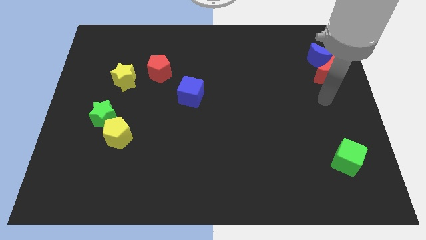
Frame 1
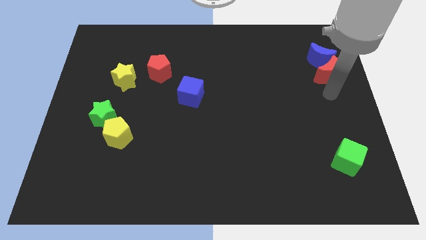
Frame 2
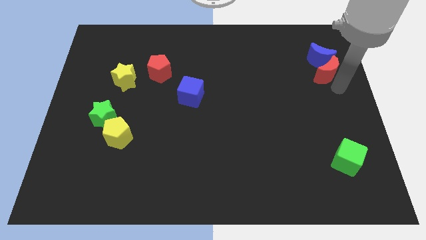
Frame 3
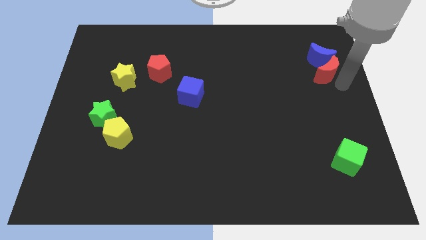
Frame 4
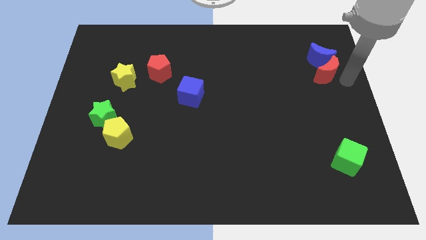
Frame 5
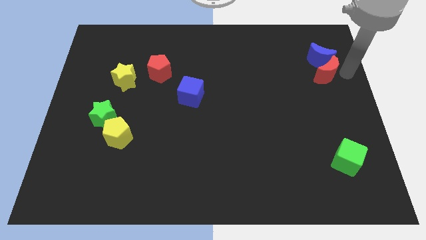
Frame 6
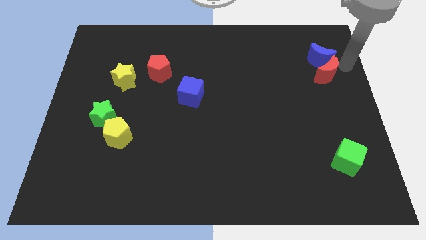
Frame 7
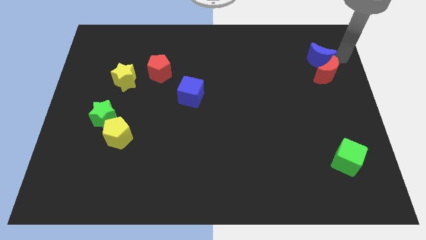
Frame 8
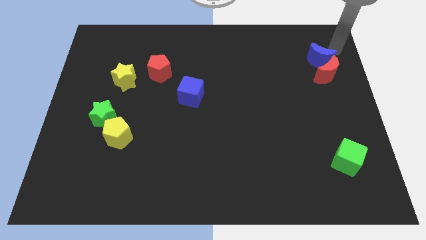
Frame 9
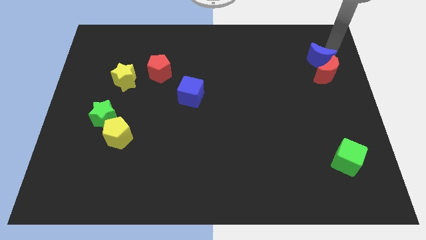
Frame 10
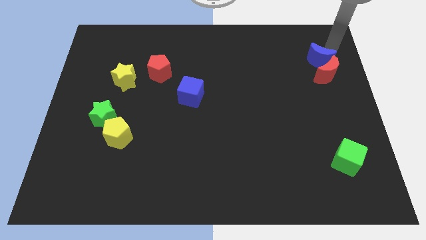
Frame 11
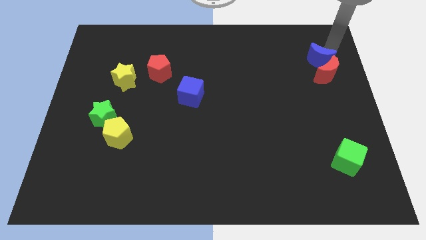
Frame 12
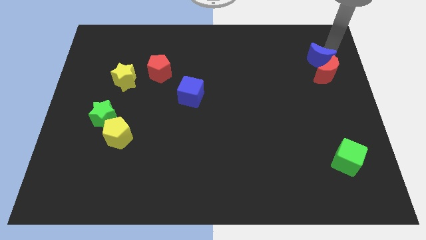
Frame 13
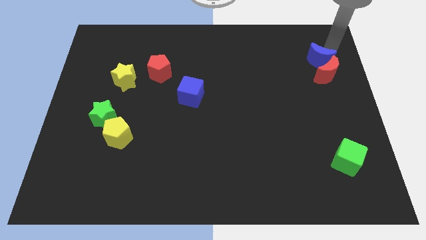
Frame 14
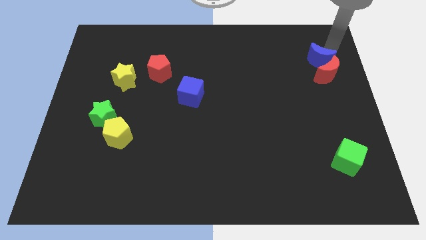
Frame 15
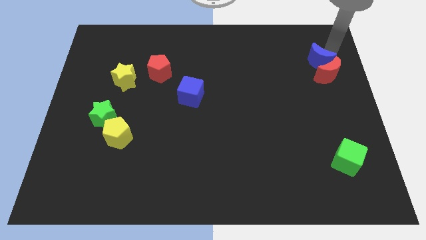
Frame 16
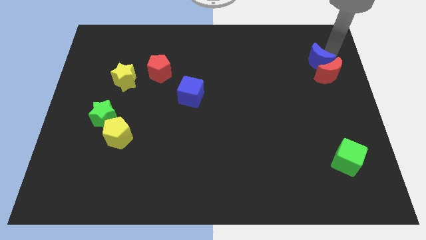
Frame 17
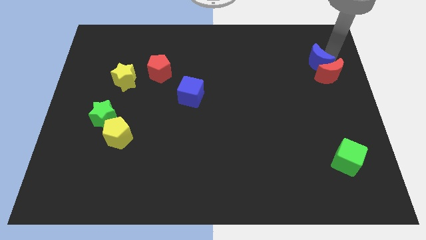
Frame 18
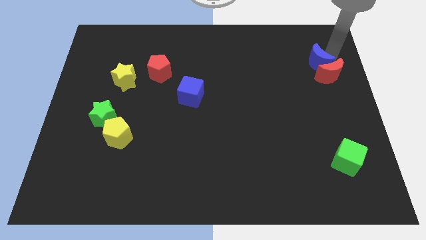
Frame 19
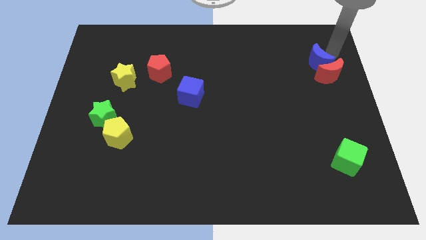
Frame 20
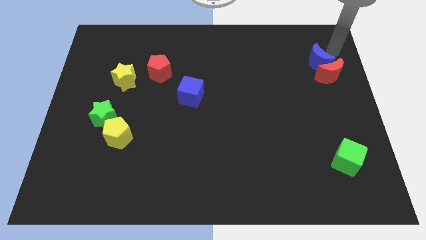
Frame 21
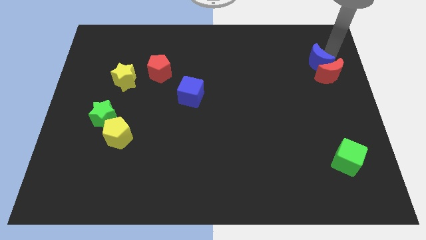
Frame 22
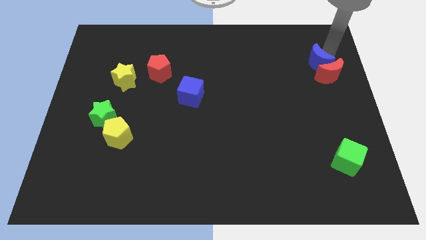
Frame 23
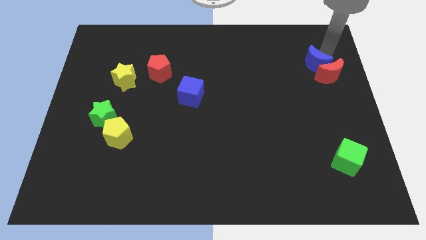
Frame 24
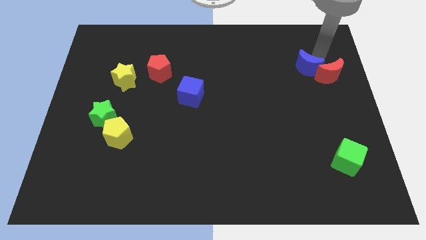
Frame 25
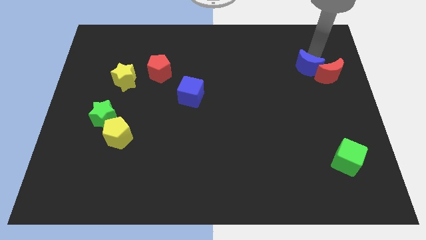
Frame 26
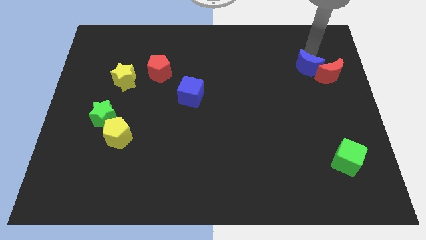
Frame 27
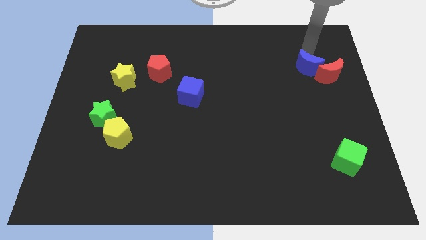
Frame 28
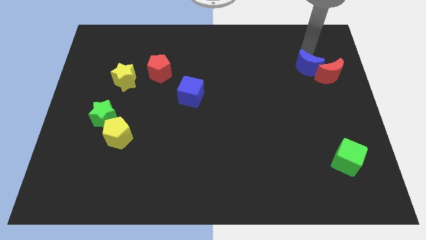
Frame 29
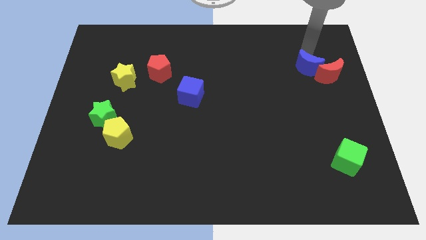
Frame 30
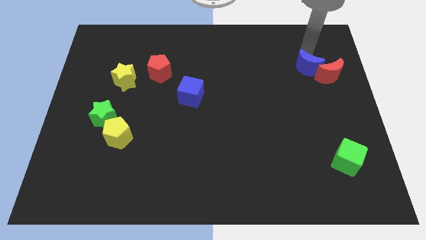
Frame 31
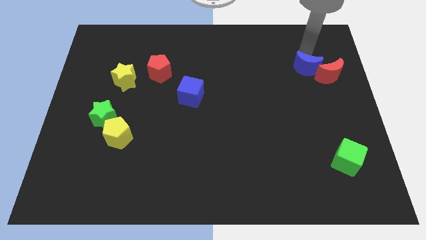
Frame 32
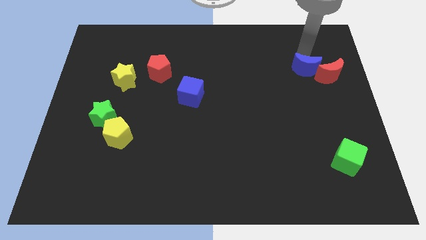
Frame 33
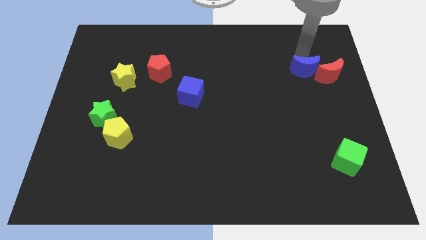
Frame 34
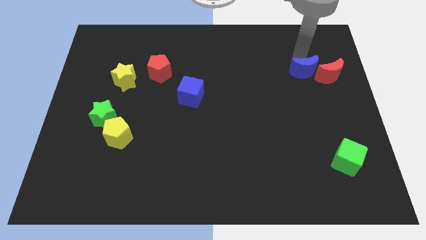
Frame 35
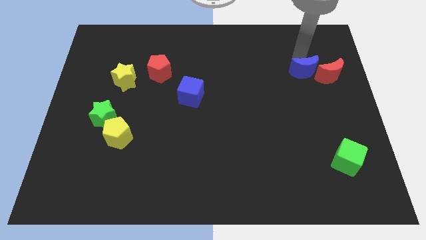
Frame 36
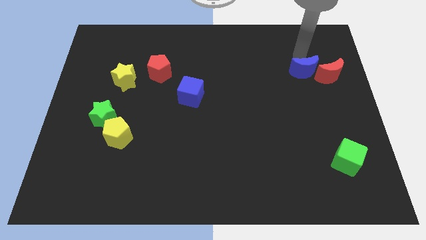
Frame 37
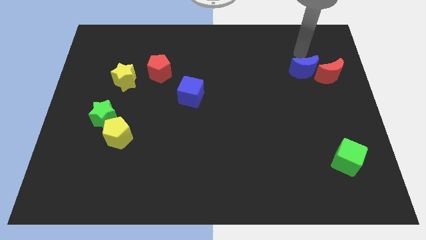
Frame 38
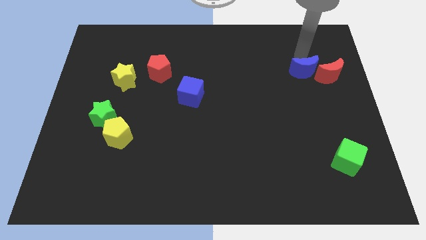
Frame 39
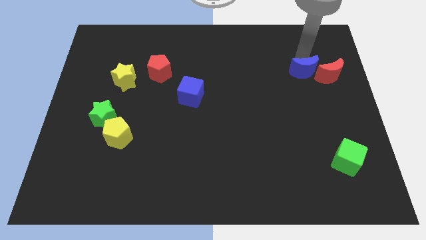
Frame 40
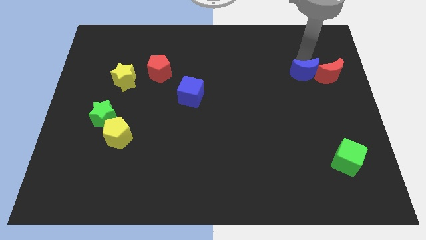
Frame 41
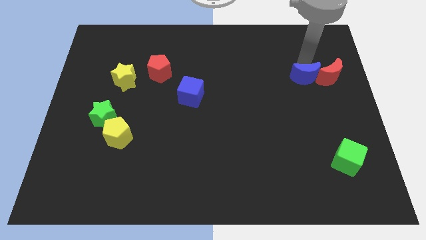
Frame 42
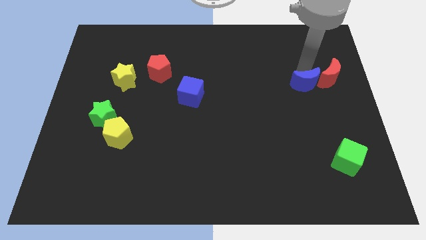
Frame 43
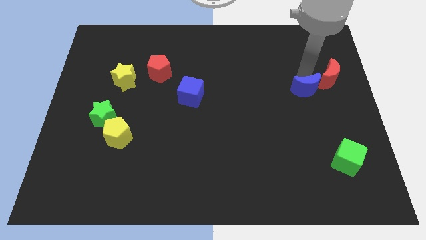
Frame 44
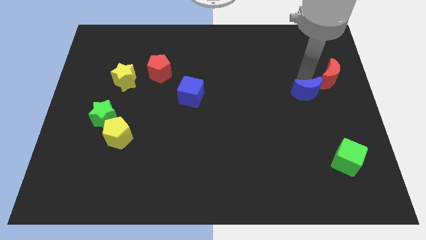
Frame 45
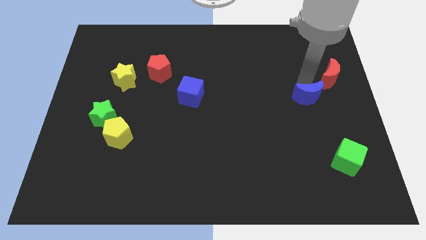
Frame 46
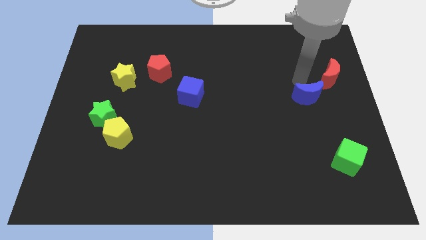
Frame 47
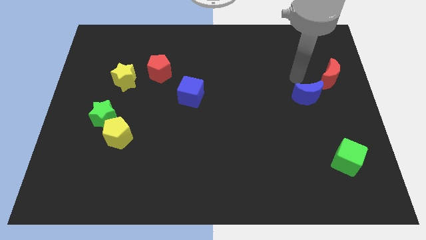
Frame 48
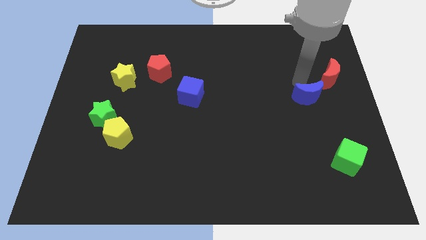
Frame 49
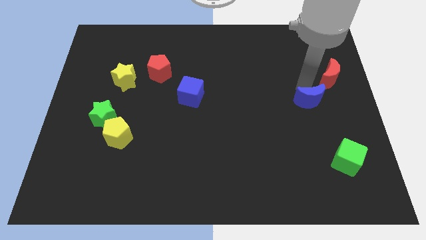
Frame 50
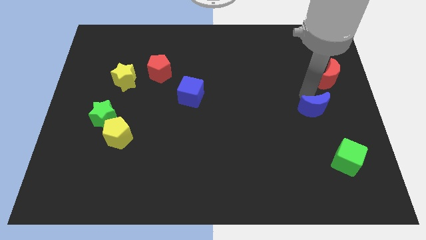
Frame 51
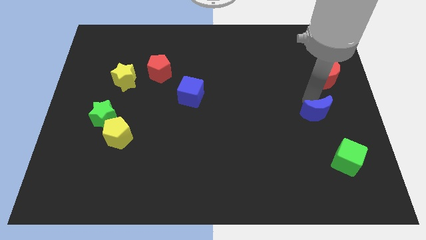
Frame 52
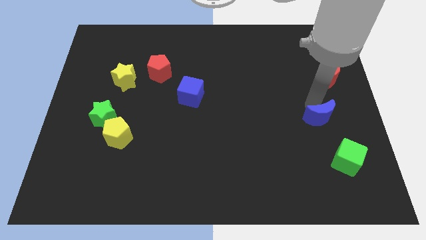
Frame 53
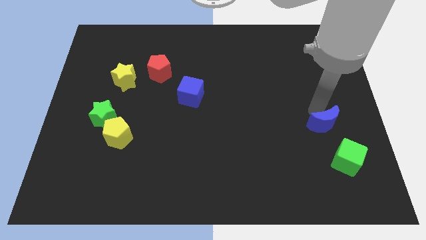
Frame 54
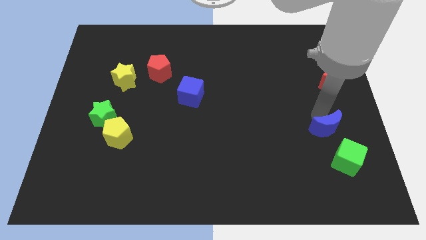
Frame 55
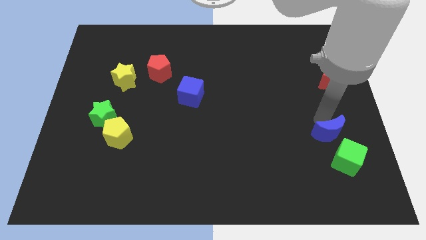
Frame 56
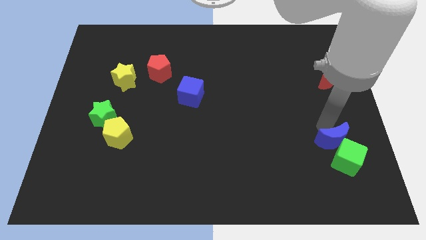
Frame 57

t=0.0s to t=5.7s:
slide the blue moon close to the green cube
